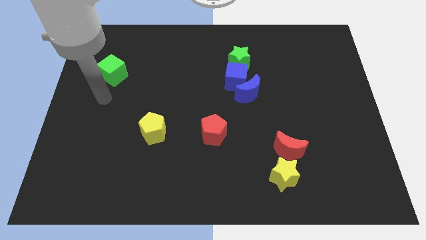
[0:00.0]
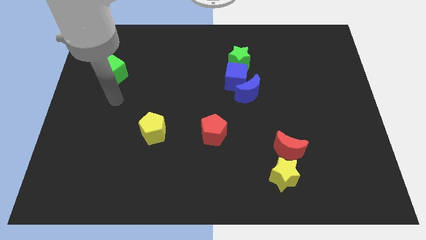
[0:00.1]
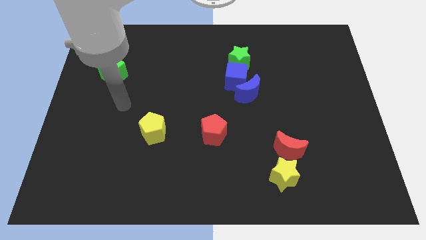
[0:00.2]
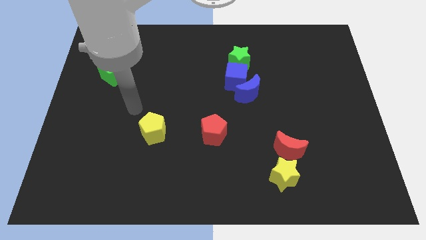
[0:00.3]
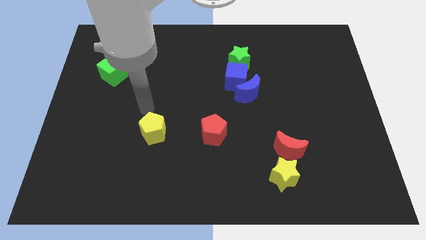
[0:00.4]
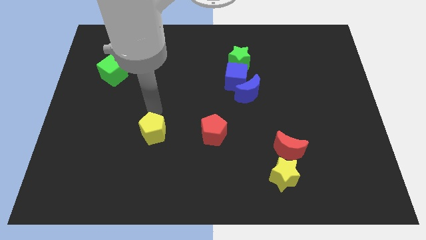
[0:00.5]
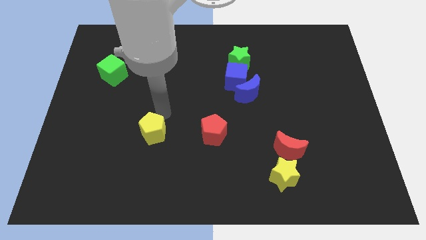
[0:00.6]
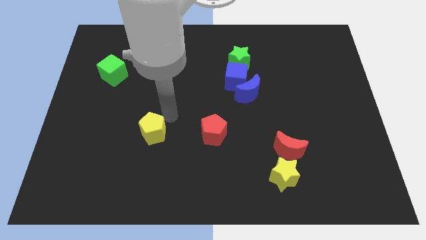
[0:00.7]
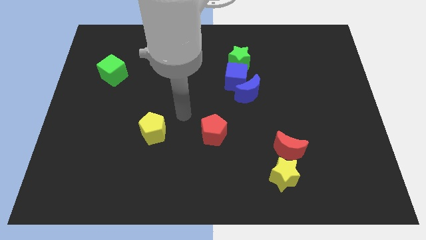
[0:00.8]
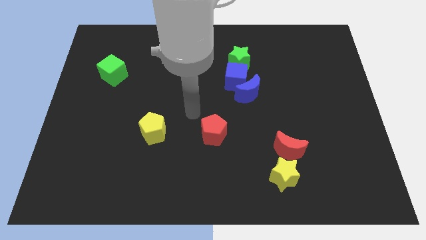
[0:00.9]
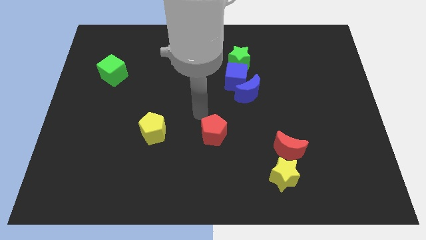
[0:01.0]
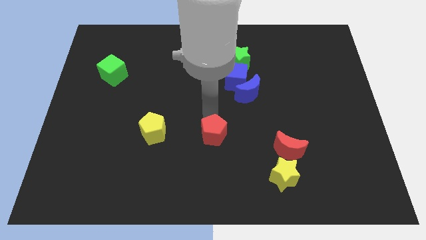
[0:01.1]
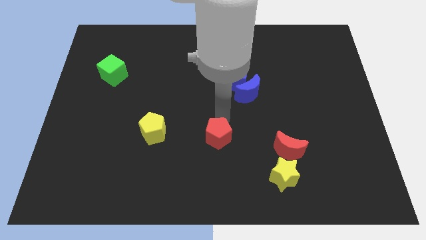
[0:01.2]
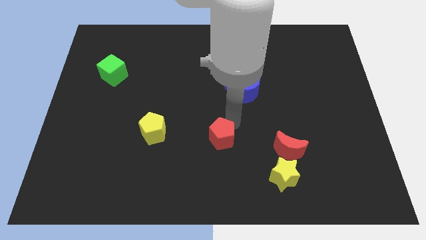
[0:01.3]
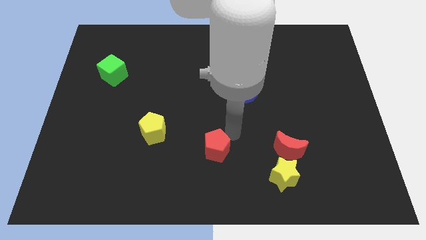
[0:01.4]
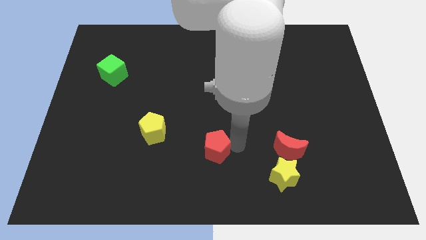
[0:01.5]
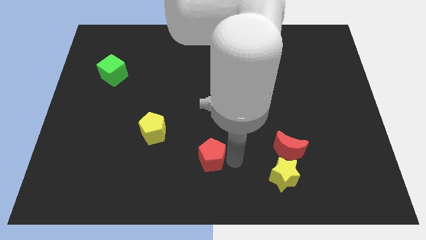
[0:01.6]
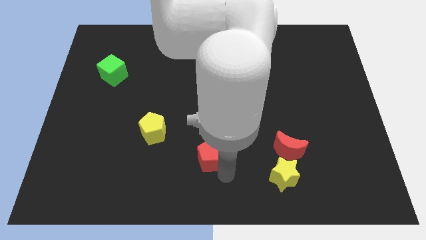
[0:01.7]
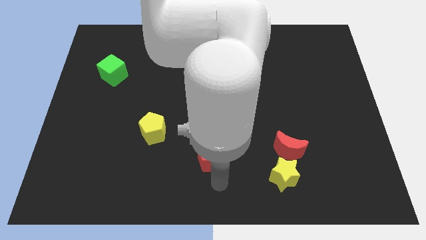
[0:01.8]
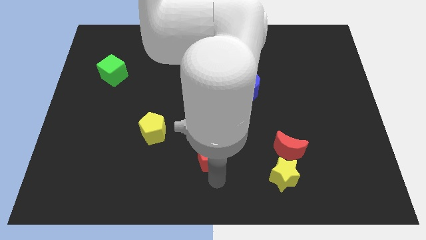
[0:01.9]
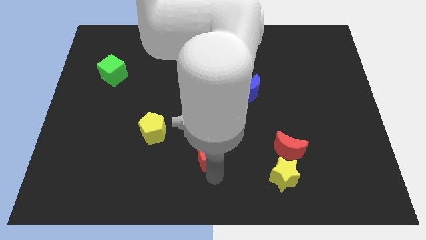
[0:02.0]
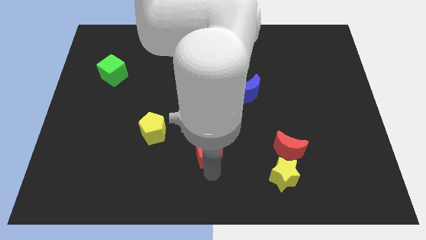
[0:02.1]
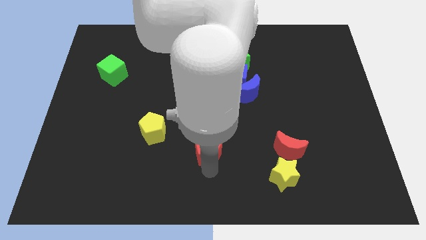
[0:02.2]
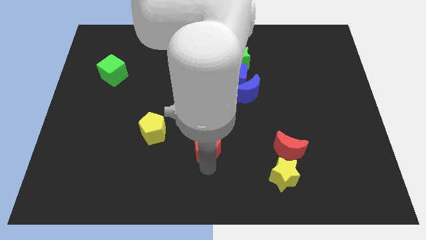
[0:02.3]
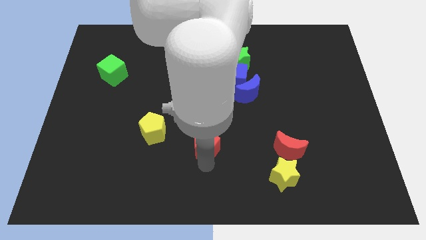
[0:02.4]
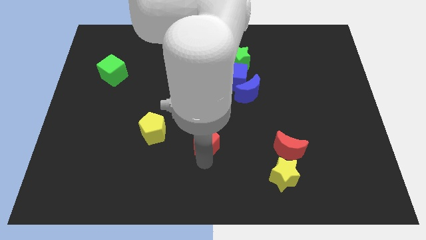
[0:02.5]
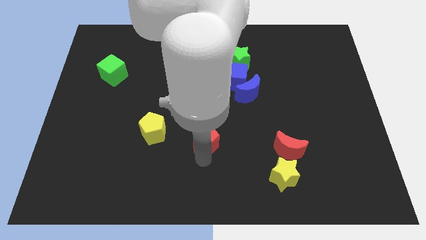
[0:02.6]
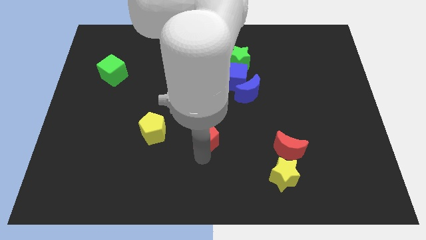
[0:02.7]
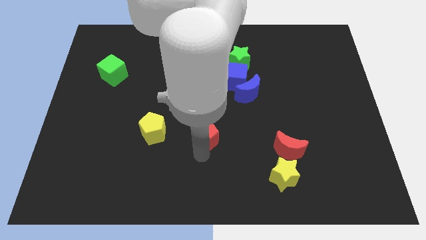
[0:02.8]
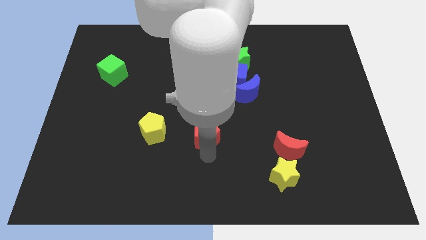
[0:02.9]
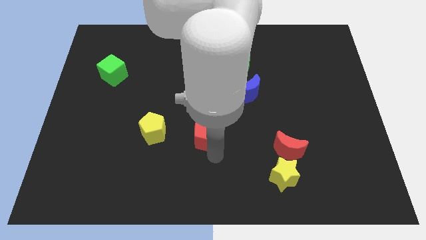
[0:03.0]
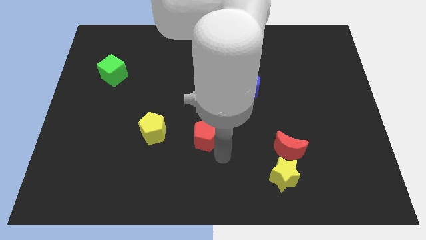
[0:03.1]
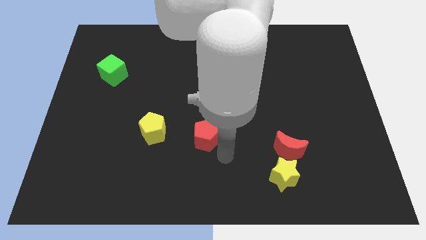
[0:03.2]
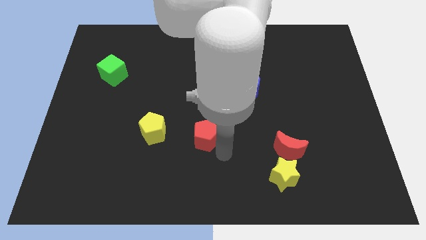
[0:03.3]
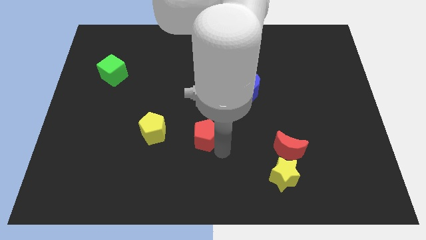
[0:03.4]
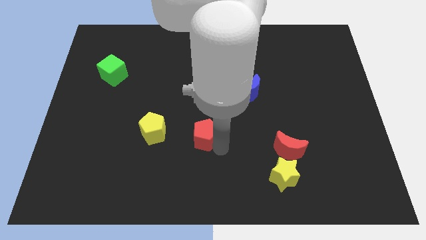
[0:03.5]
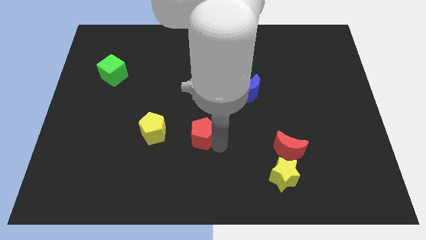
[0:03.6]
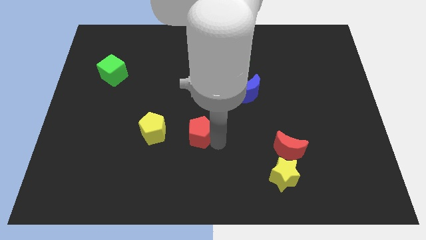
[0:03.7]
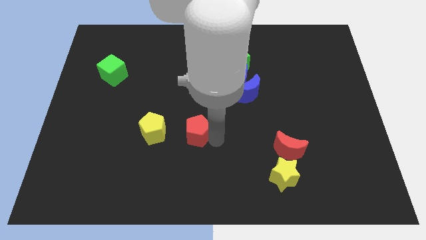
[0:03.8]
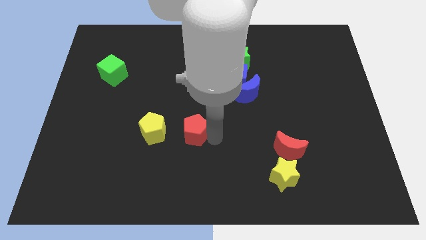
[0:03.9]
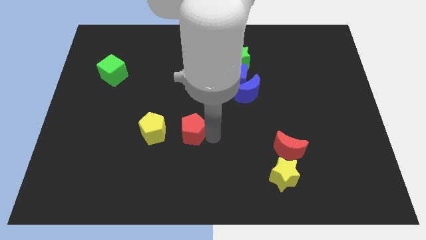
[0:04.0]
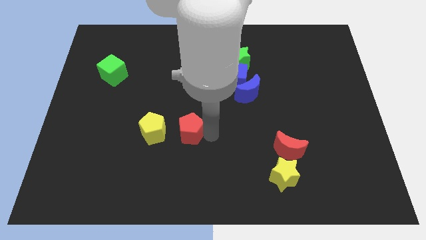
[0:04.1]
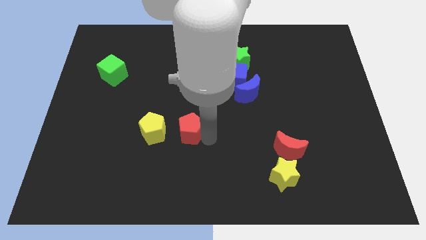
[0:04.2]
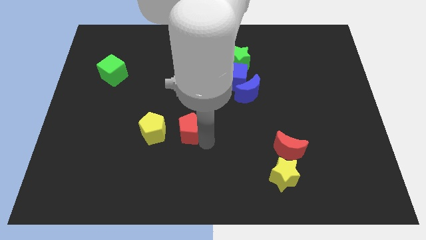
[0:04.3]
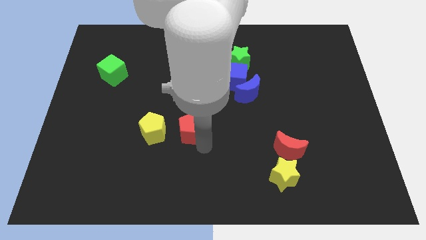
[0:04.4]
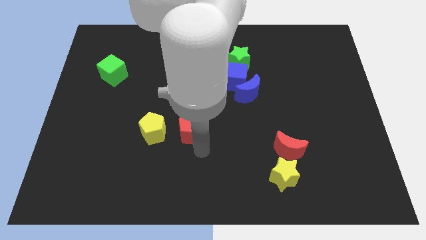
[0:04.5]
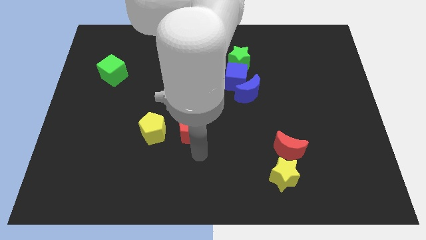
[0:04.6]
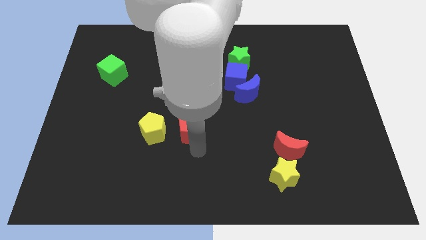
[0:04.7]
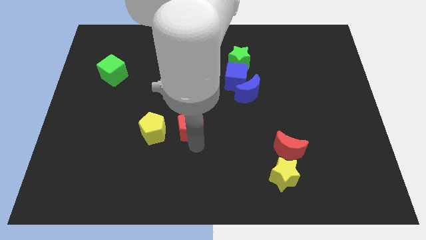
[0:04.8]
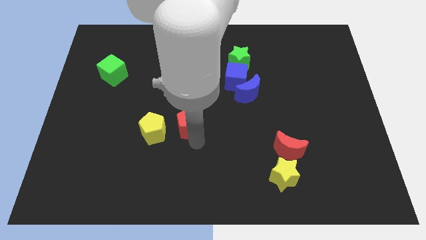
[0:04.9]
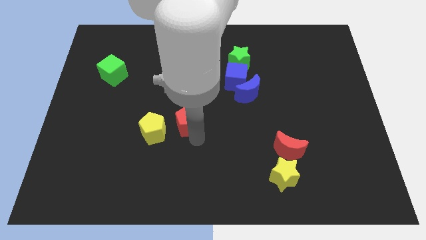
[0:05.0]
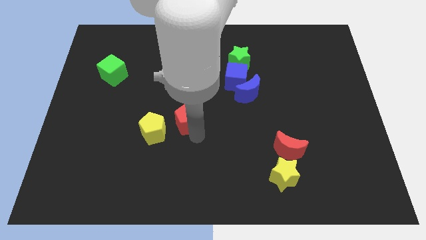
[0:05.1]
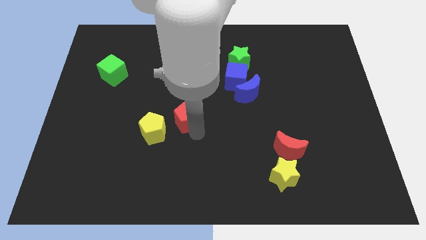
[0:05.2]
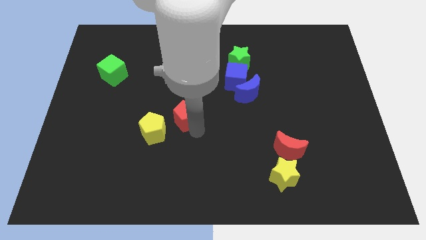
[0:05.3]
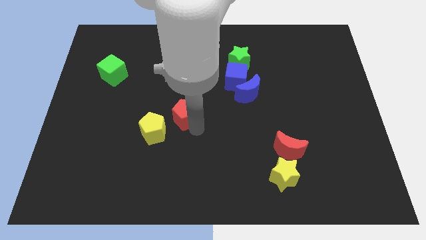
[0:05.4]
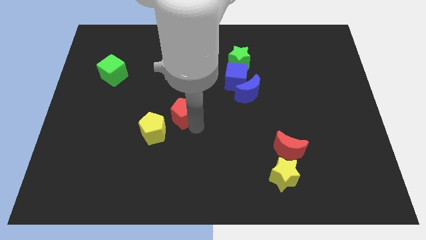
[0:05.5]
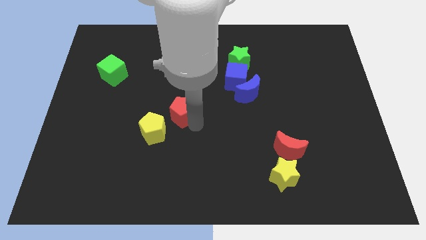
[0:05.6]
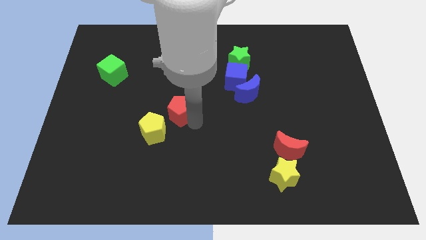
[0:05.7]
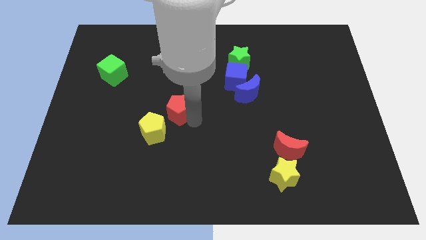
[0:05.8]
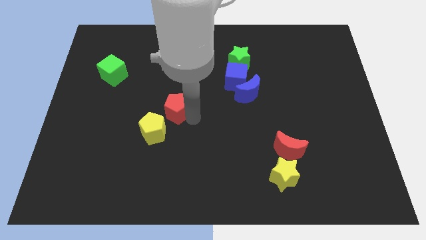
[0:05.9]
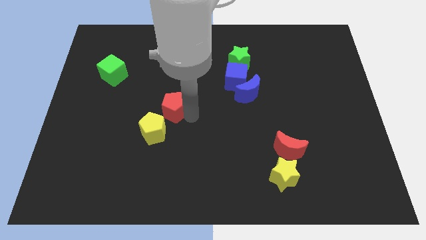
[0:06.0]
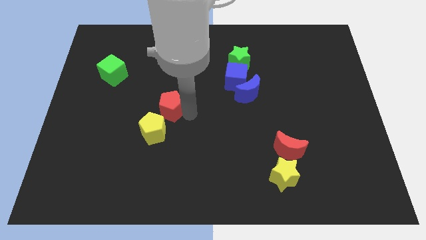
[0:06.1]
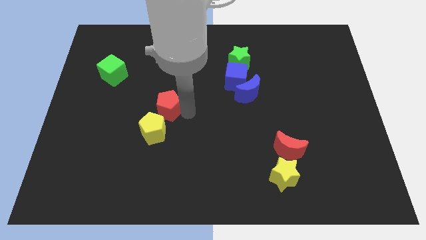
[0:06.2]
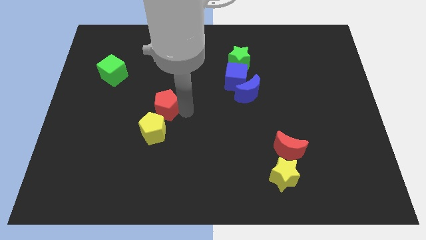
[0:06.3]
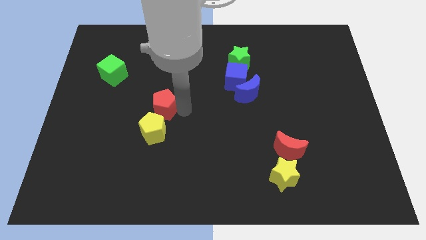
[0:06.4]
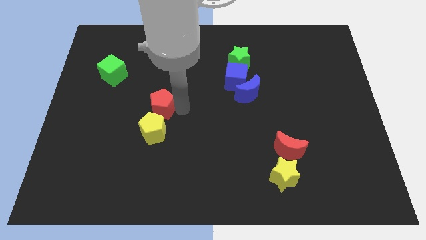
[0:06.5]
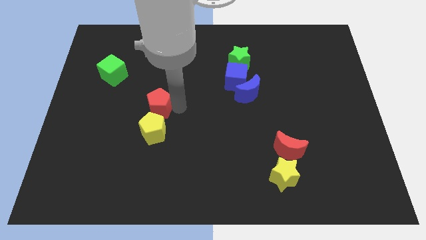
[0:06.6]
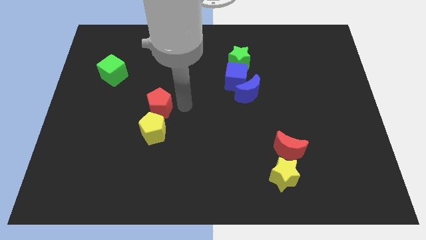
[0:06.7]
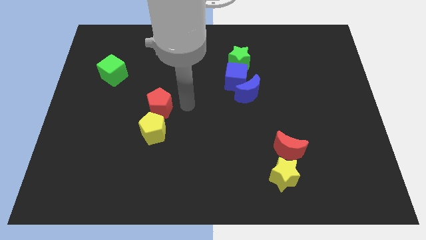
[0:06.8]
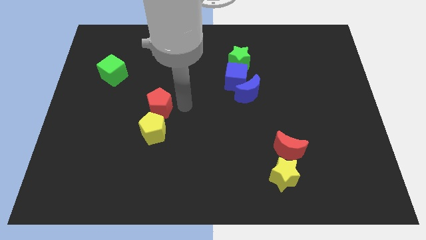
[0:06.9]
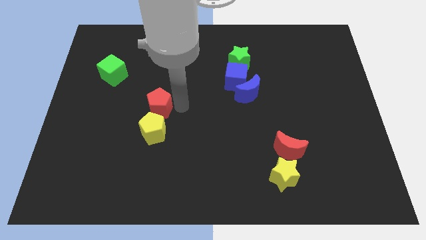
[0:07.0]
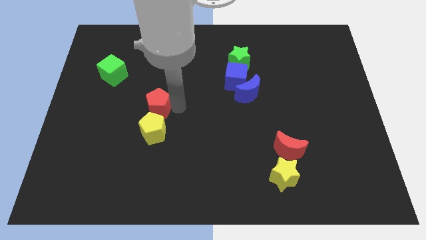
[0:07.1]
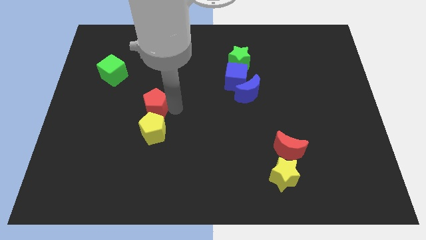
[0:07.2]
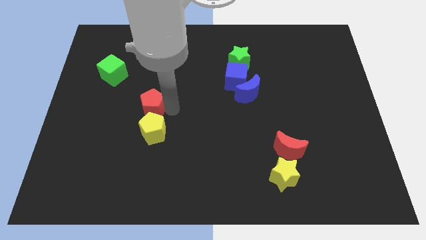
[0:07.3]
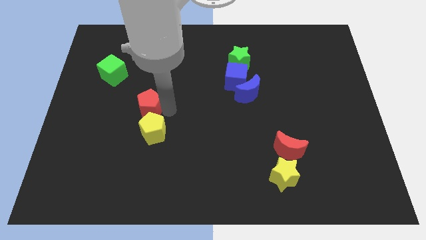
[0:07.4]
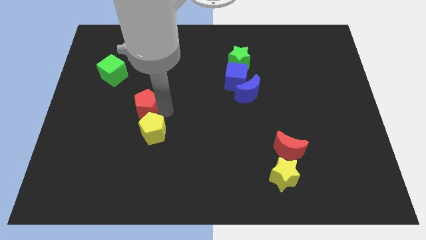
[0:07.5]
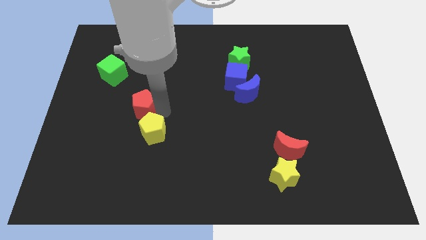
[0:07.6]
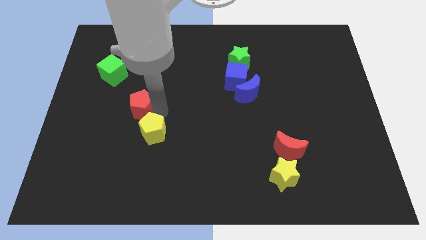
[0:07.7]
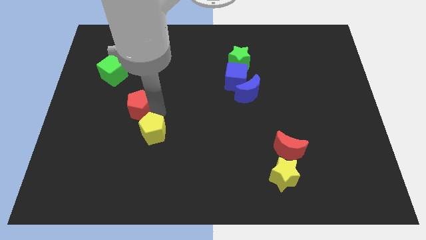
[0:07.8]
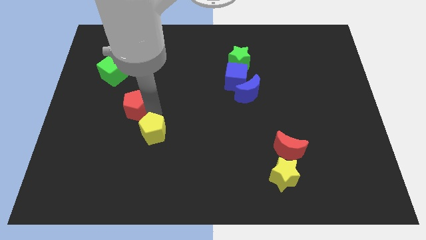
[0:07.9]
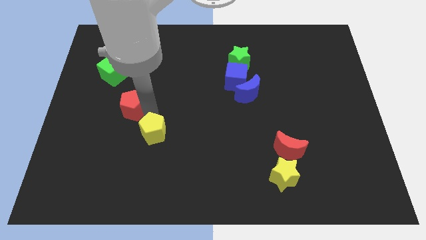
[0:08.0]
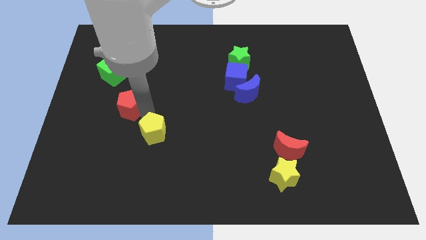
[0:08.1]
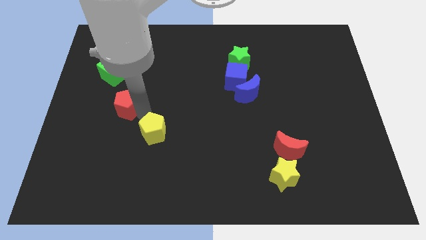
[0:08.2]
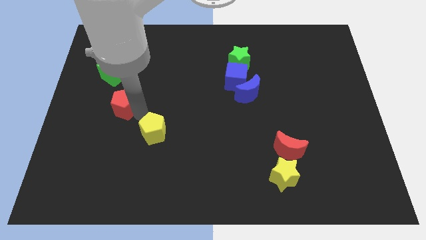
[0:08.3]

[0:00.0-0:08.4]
slide the red pentagon to the bottom of the green cube
